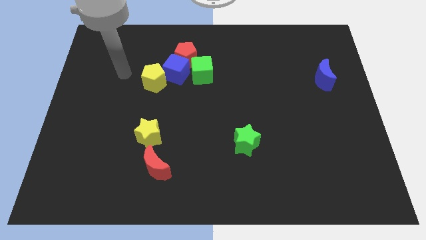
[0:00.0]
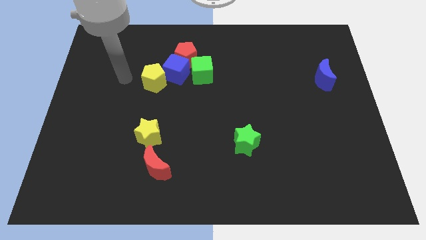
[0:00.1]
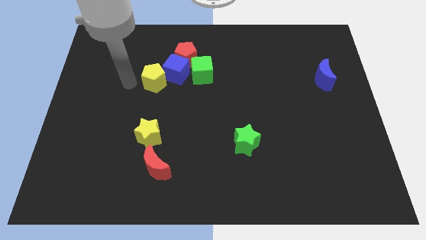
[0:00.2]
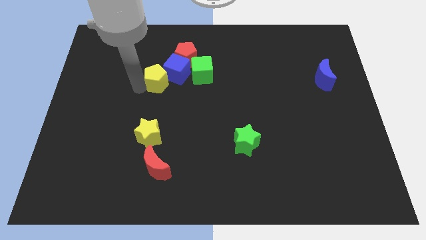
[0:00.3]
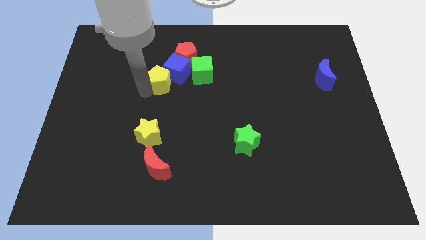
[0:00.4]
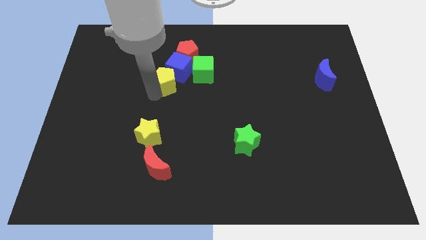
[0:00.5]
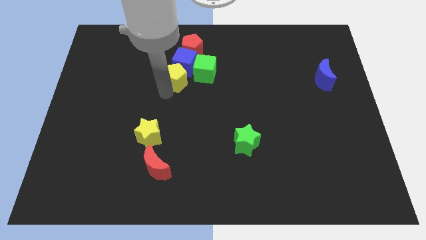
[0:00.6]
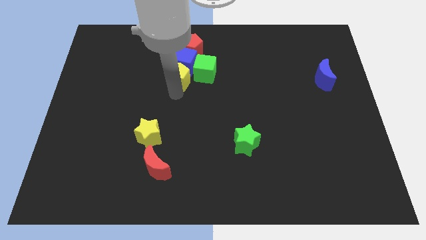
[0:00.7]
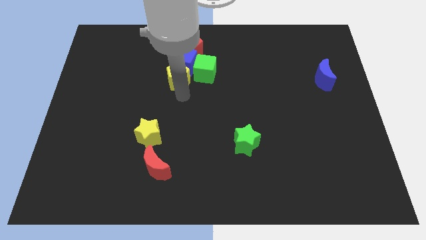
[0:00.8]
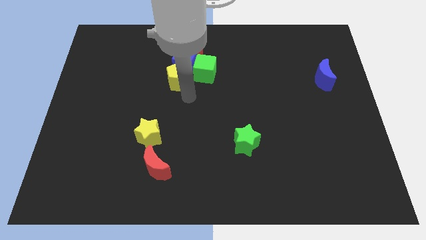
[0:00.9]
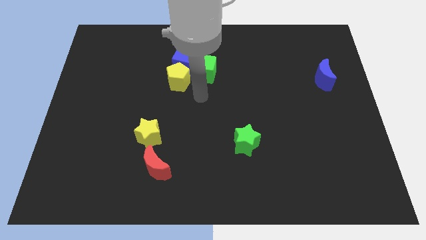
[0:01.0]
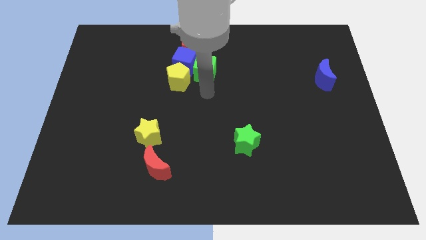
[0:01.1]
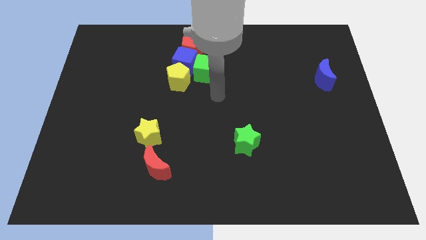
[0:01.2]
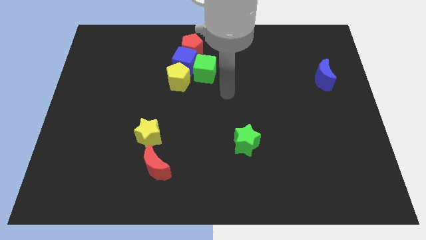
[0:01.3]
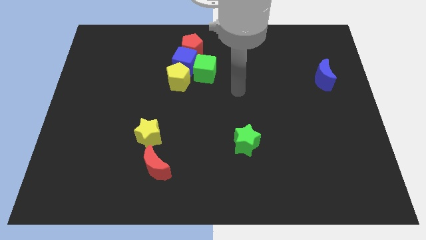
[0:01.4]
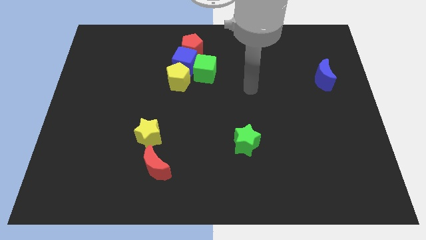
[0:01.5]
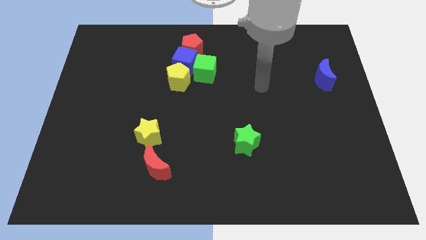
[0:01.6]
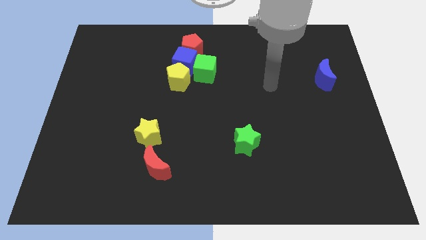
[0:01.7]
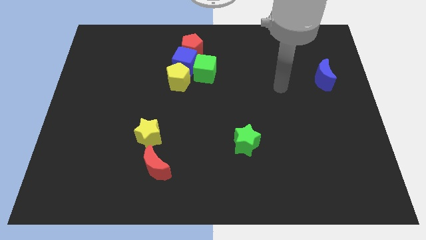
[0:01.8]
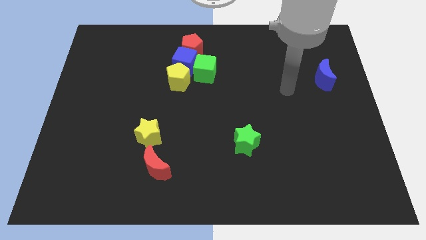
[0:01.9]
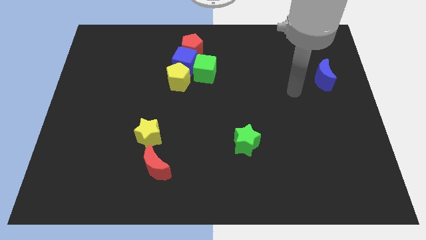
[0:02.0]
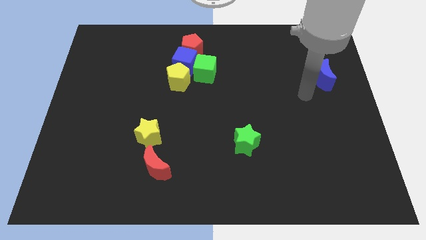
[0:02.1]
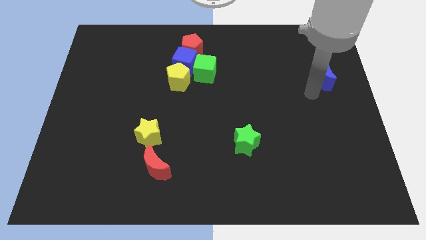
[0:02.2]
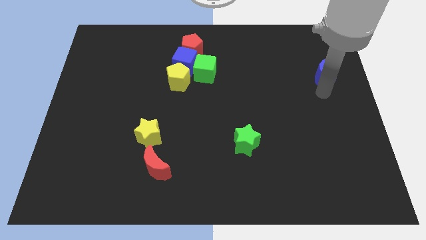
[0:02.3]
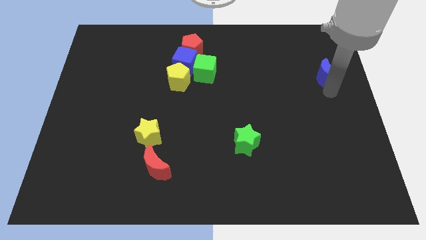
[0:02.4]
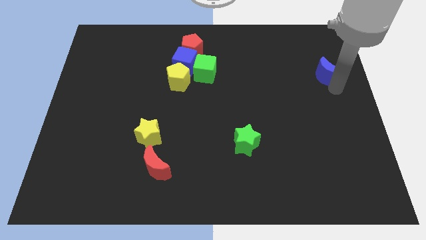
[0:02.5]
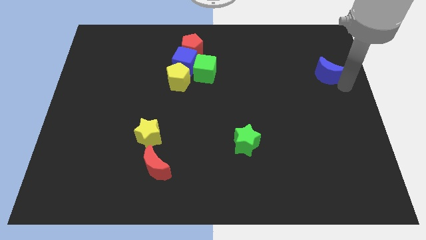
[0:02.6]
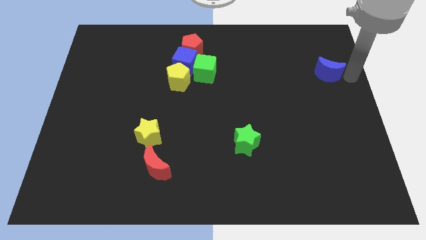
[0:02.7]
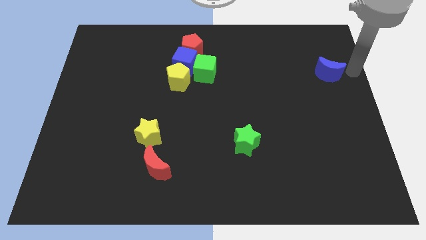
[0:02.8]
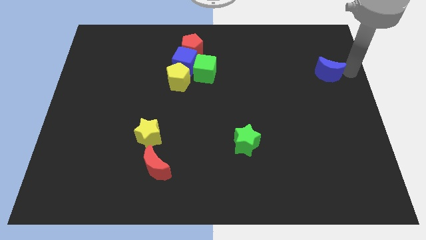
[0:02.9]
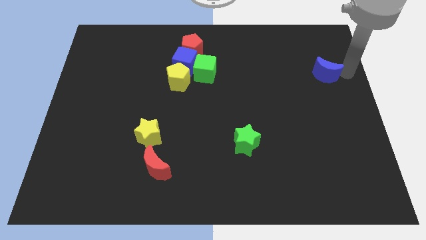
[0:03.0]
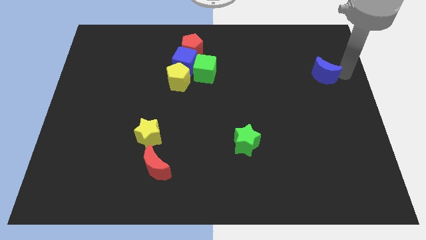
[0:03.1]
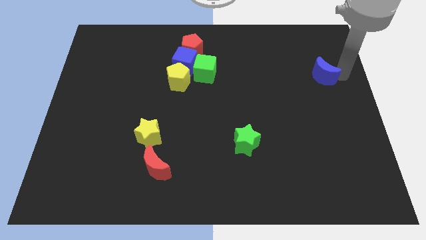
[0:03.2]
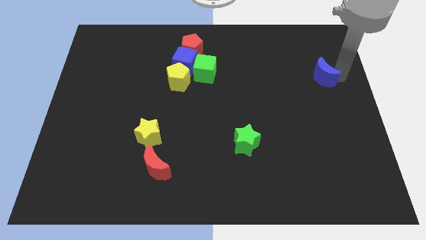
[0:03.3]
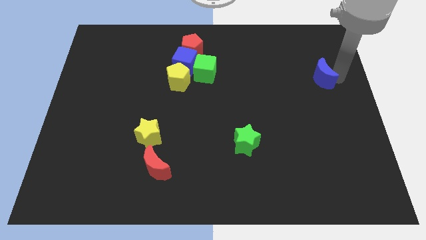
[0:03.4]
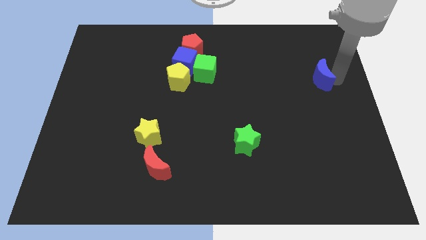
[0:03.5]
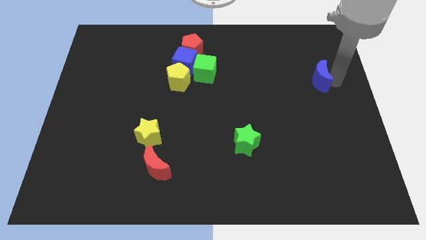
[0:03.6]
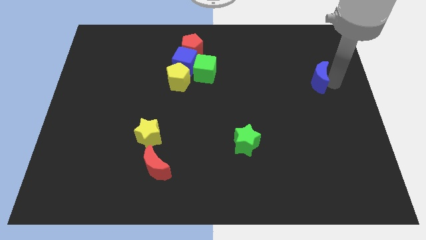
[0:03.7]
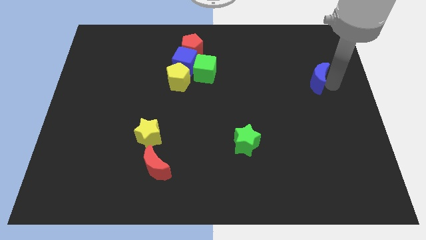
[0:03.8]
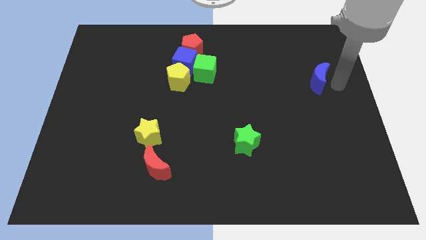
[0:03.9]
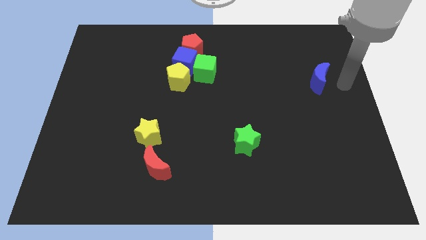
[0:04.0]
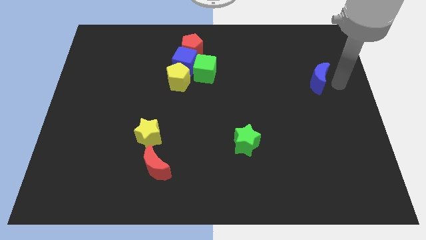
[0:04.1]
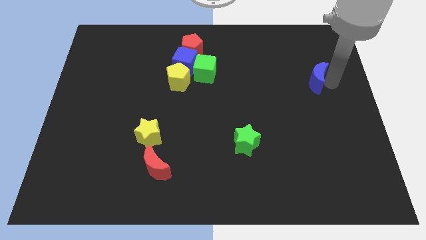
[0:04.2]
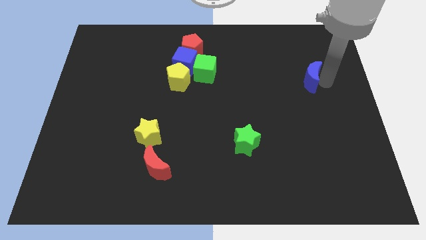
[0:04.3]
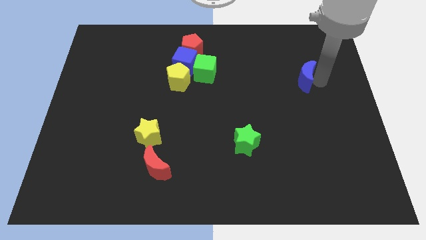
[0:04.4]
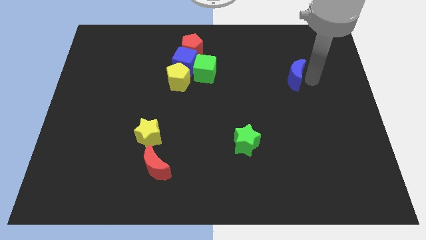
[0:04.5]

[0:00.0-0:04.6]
slide the blue moon to the left slightly

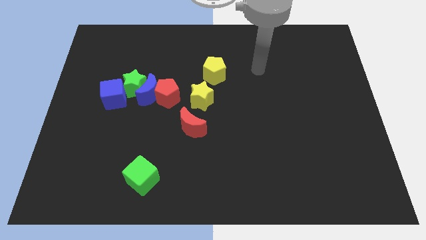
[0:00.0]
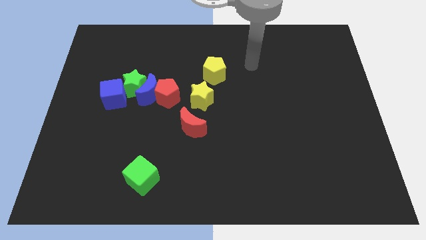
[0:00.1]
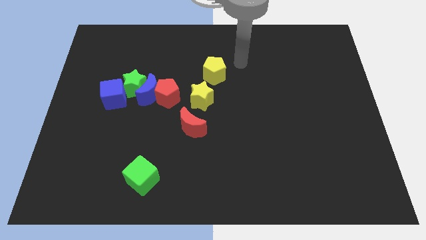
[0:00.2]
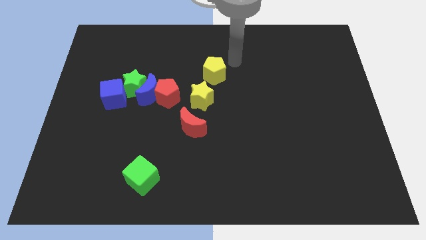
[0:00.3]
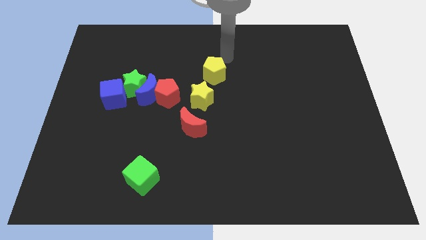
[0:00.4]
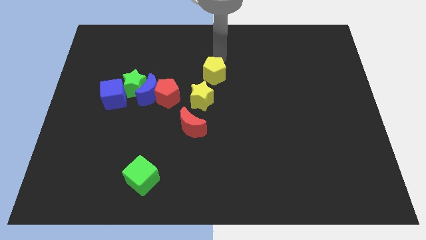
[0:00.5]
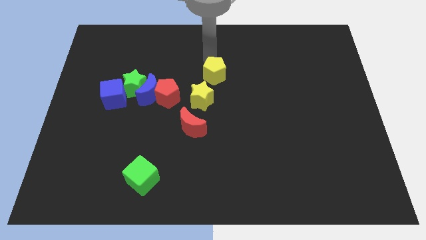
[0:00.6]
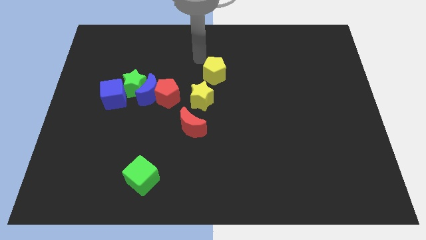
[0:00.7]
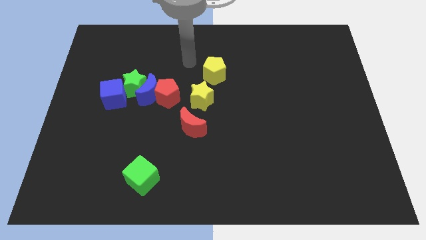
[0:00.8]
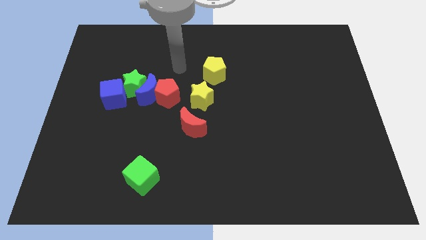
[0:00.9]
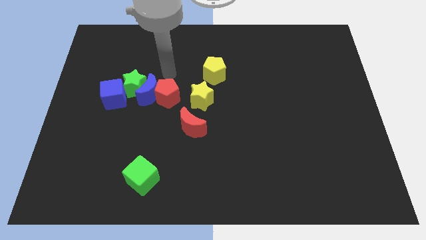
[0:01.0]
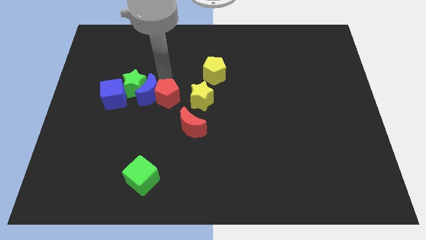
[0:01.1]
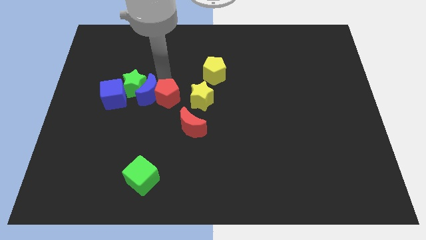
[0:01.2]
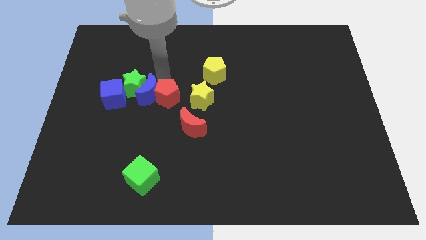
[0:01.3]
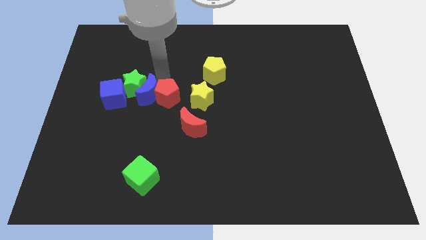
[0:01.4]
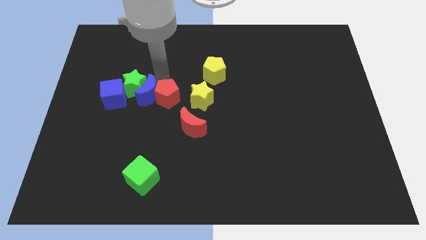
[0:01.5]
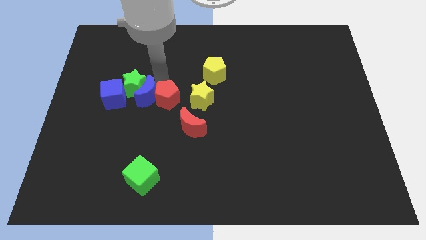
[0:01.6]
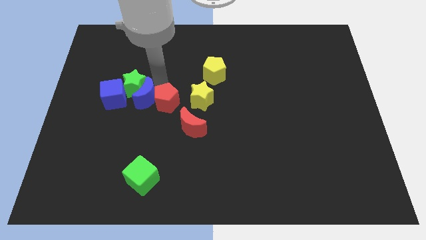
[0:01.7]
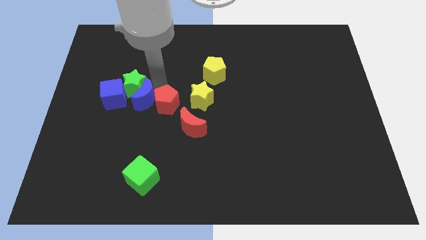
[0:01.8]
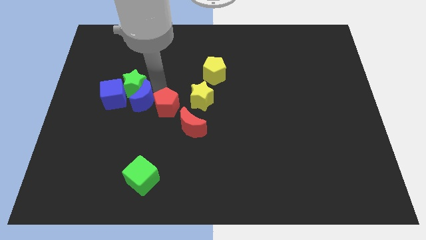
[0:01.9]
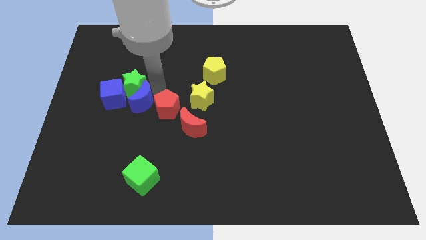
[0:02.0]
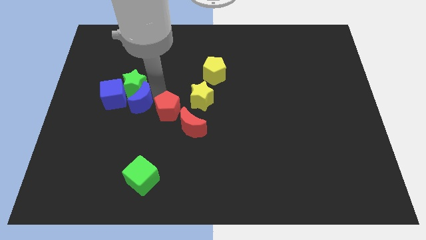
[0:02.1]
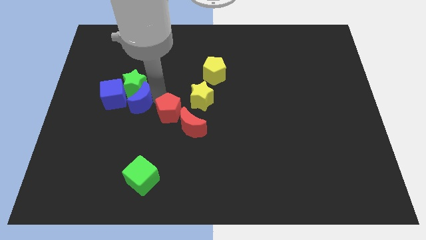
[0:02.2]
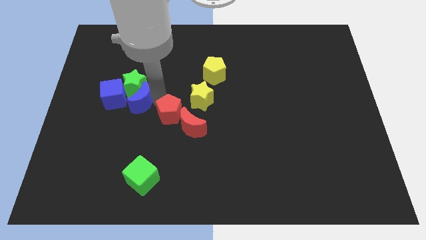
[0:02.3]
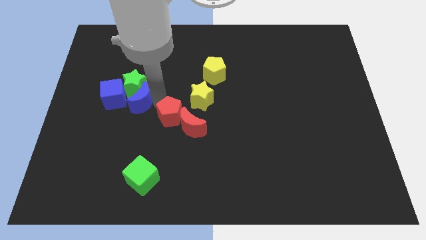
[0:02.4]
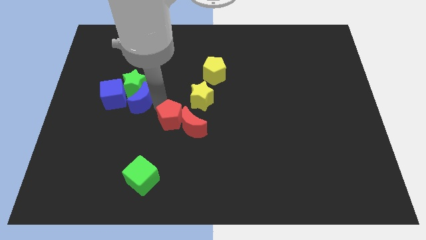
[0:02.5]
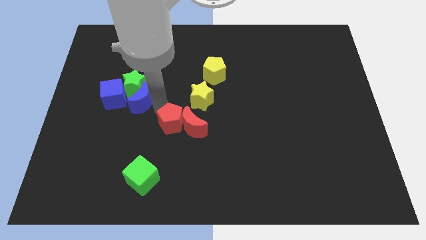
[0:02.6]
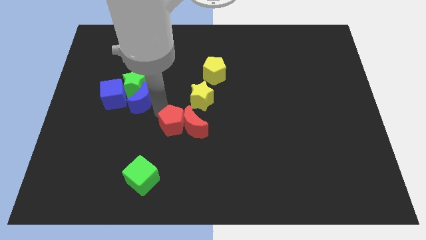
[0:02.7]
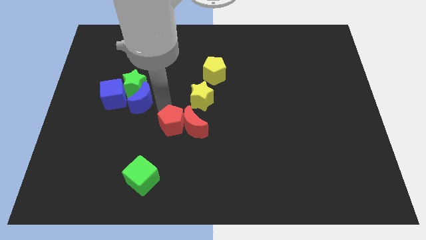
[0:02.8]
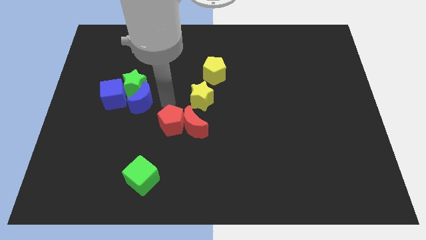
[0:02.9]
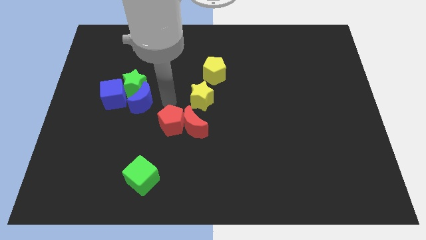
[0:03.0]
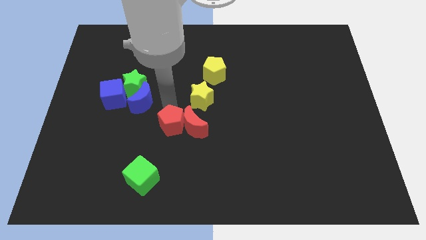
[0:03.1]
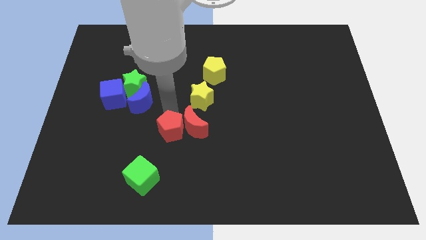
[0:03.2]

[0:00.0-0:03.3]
move the red pentagon a little downwards and then right

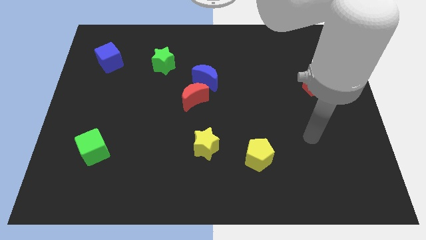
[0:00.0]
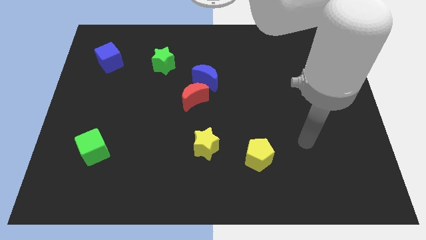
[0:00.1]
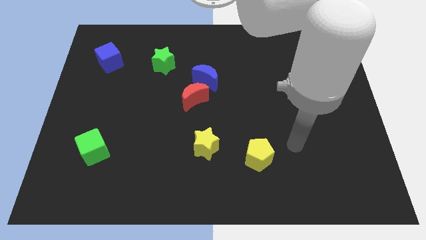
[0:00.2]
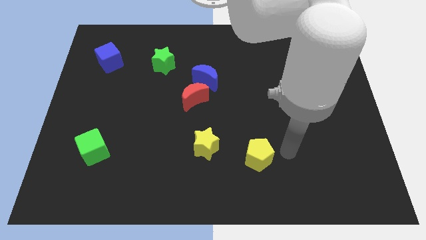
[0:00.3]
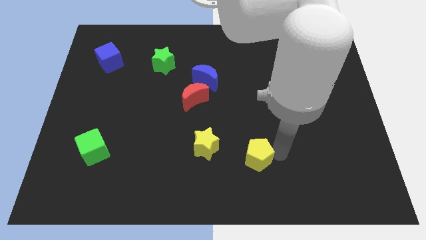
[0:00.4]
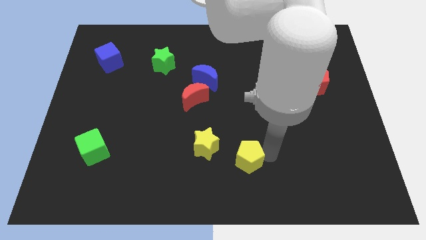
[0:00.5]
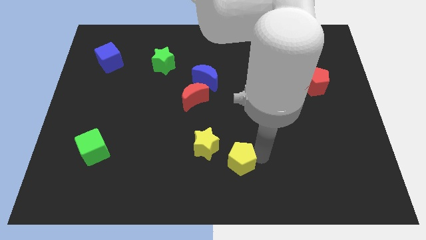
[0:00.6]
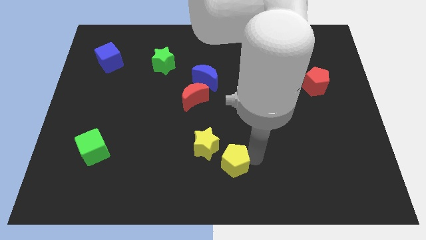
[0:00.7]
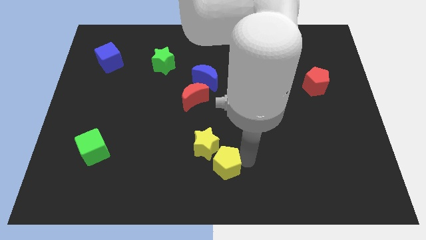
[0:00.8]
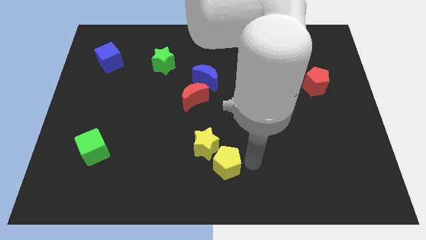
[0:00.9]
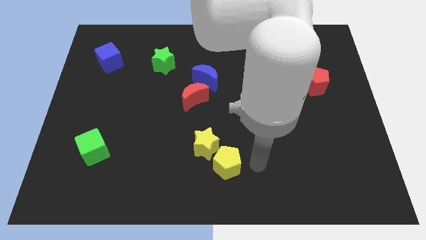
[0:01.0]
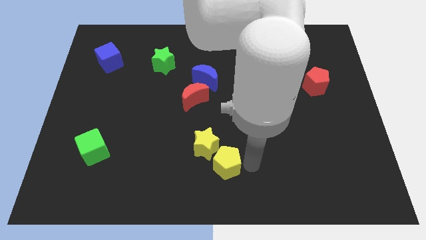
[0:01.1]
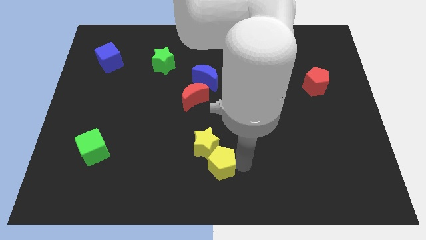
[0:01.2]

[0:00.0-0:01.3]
slightly push the yellow pentagon left
